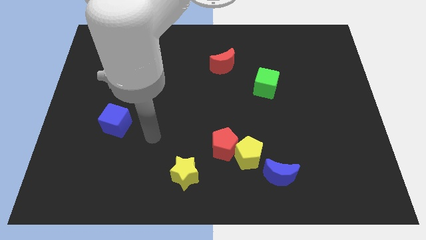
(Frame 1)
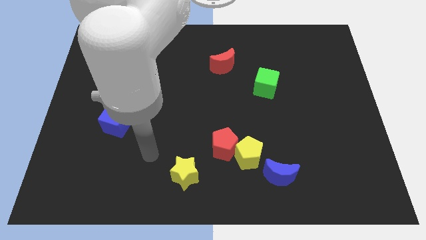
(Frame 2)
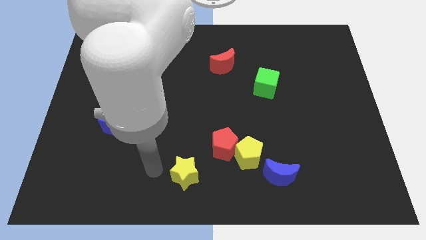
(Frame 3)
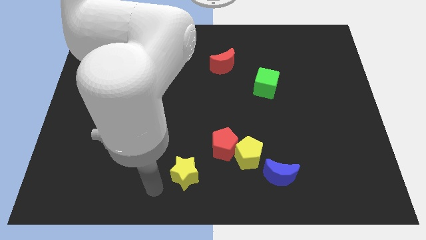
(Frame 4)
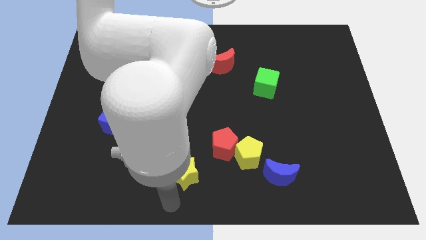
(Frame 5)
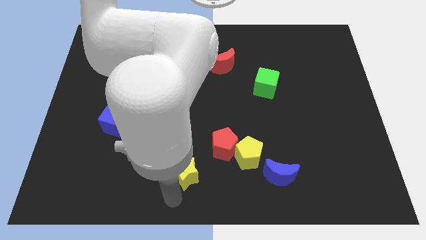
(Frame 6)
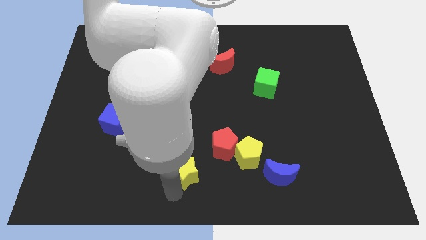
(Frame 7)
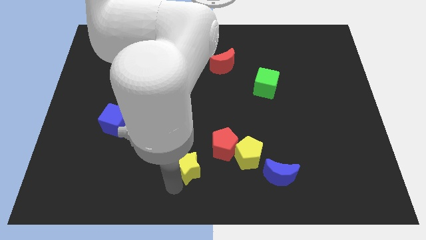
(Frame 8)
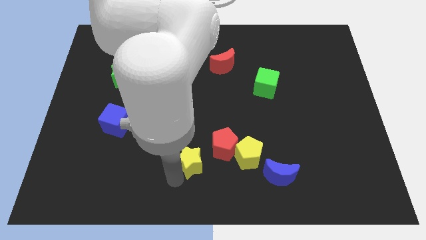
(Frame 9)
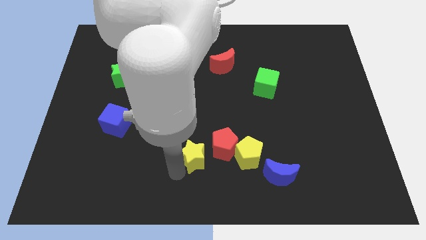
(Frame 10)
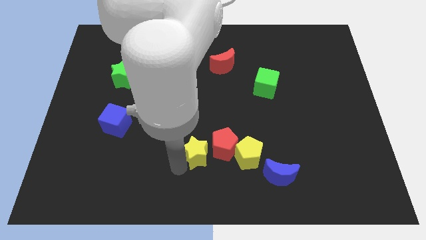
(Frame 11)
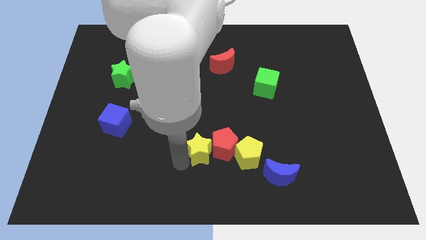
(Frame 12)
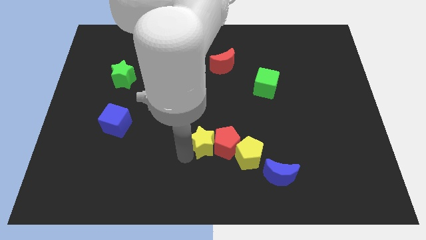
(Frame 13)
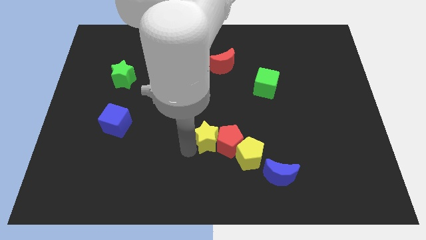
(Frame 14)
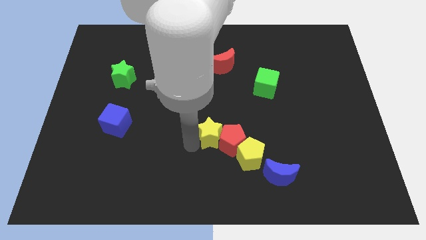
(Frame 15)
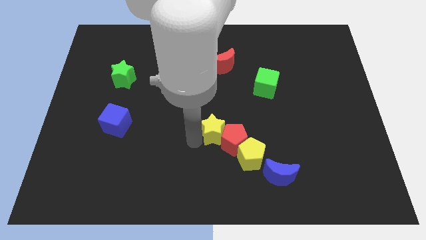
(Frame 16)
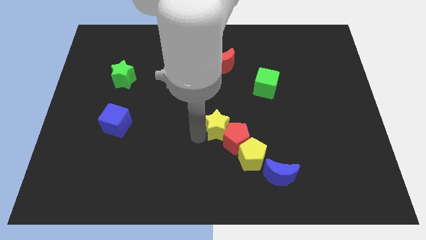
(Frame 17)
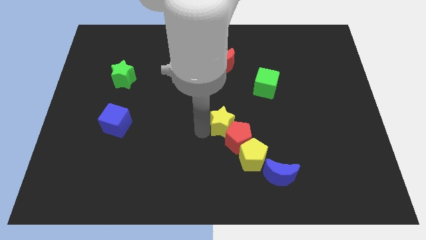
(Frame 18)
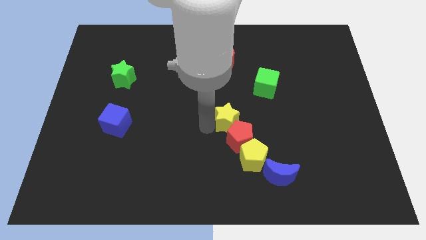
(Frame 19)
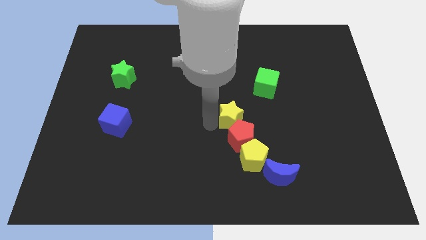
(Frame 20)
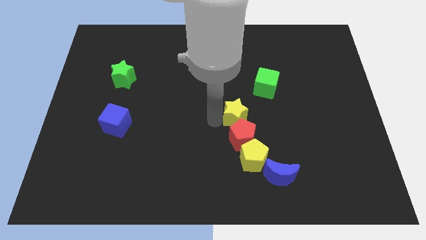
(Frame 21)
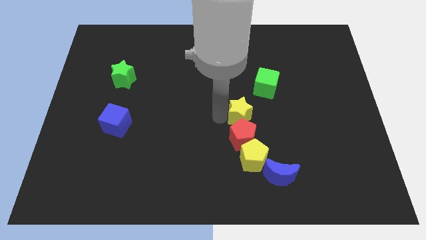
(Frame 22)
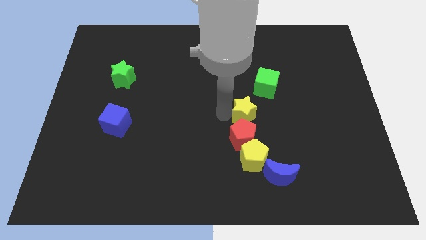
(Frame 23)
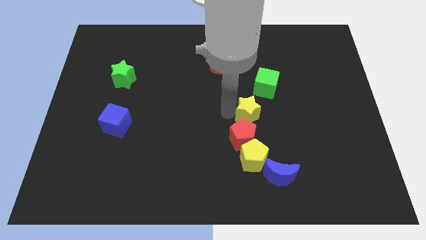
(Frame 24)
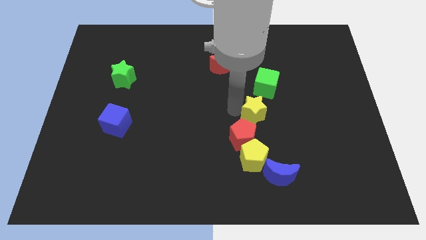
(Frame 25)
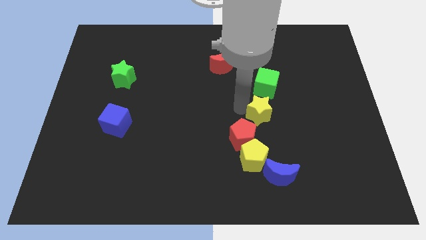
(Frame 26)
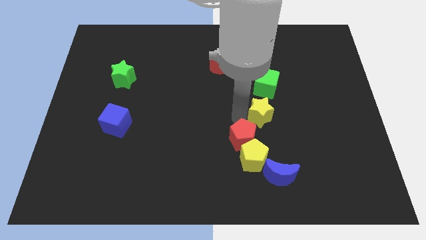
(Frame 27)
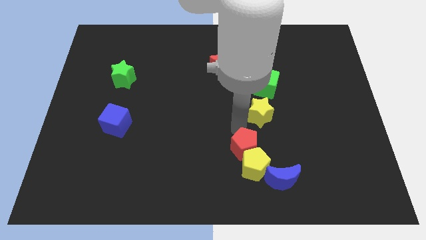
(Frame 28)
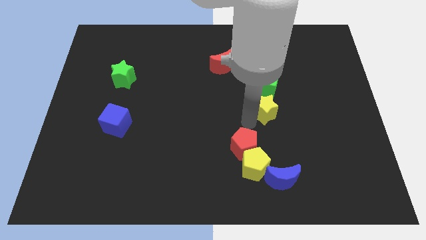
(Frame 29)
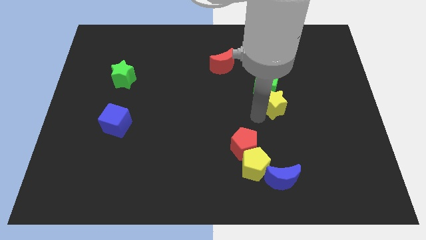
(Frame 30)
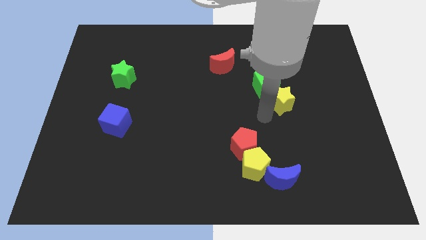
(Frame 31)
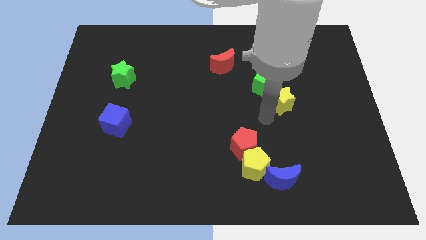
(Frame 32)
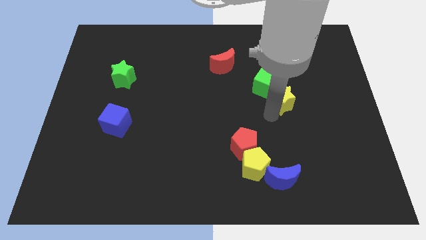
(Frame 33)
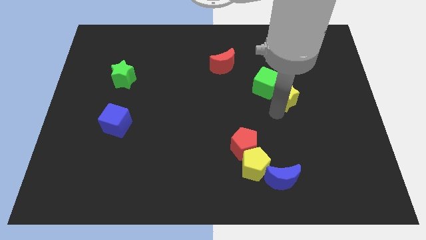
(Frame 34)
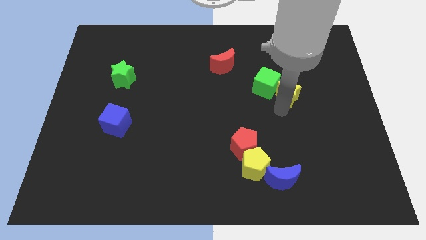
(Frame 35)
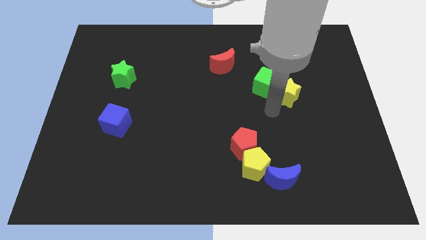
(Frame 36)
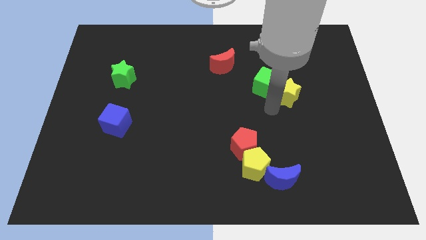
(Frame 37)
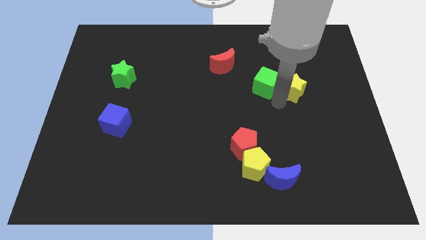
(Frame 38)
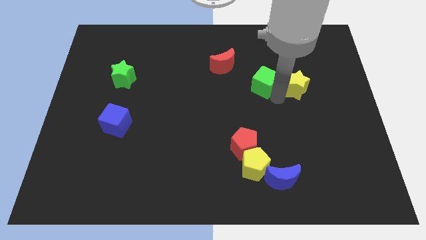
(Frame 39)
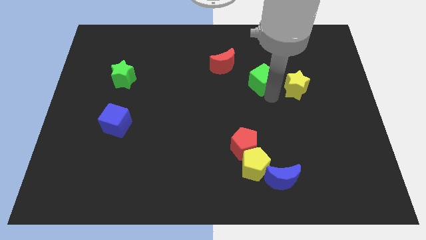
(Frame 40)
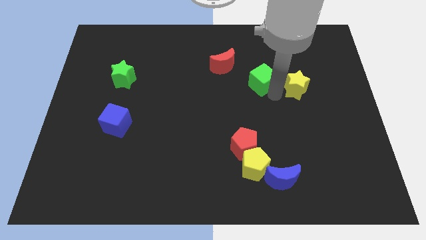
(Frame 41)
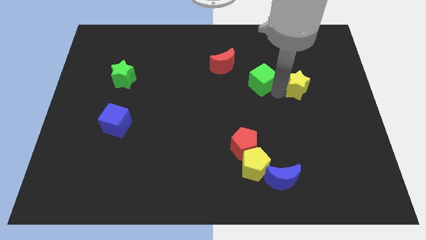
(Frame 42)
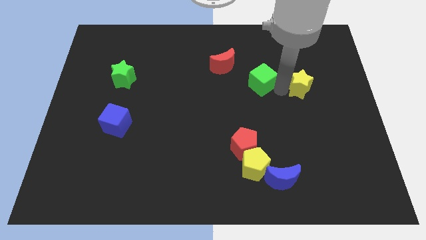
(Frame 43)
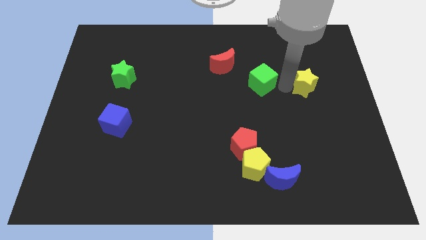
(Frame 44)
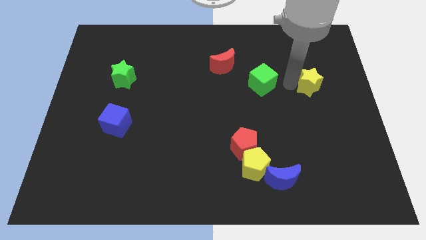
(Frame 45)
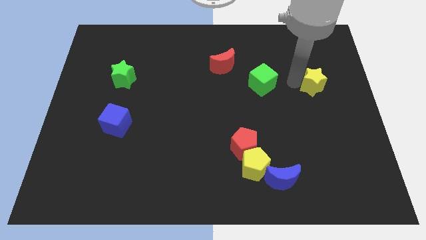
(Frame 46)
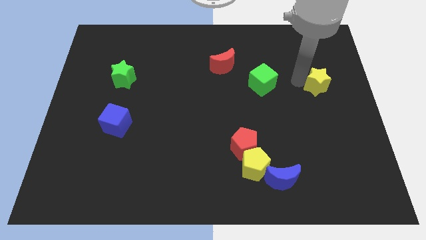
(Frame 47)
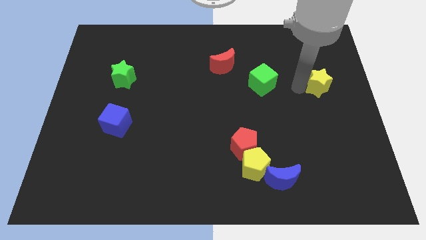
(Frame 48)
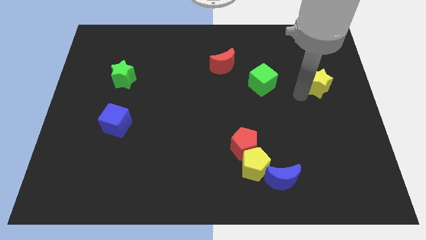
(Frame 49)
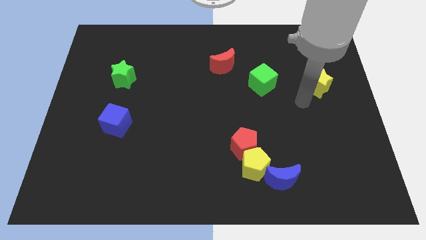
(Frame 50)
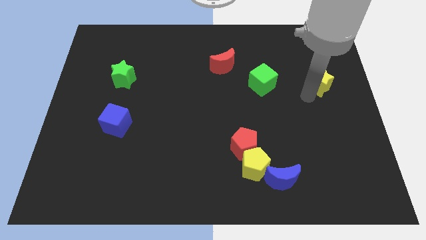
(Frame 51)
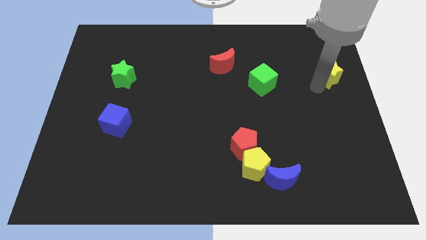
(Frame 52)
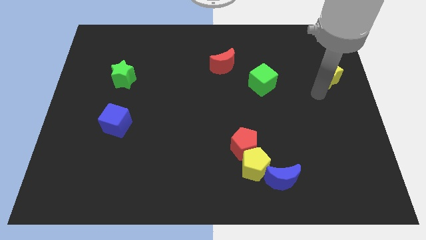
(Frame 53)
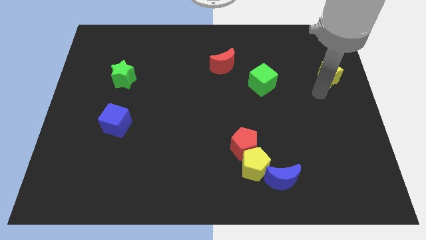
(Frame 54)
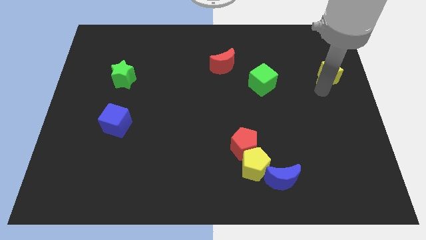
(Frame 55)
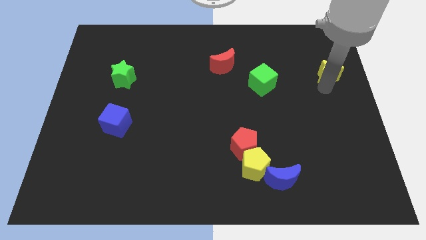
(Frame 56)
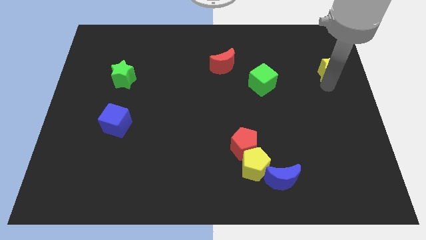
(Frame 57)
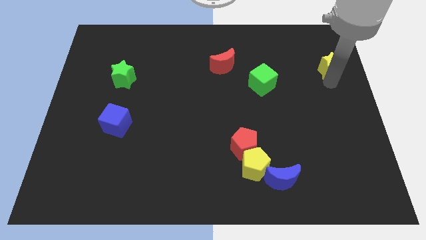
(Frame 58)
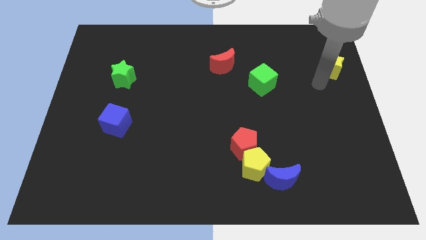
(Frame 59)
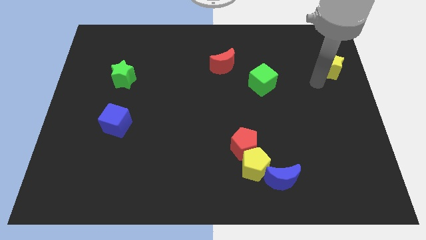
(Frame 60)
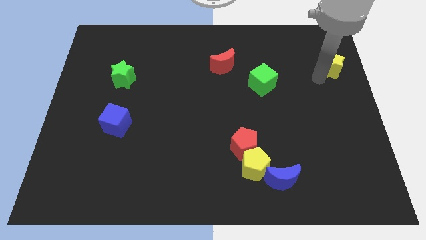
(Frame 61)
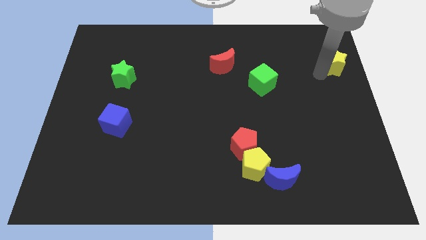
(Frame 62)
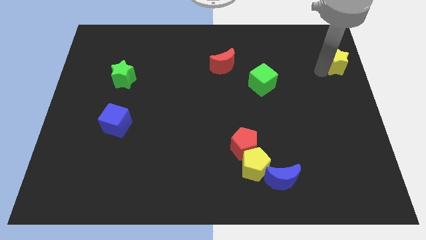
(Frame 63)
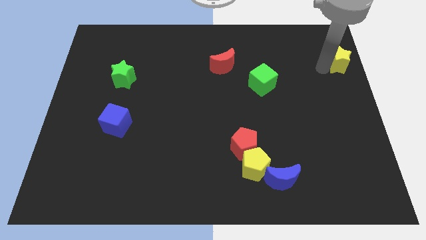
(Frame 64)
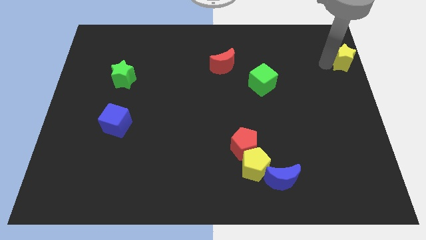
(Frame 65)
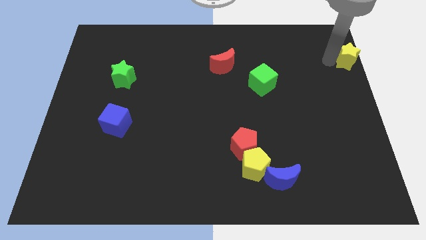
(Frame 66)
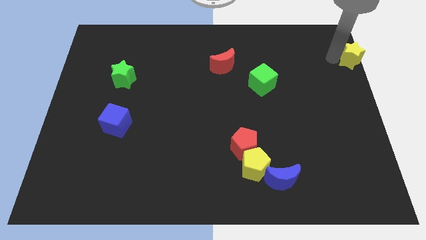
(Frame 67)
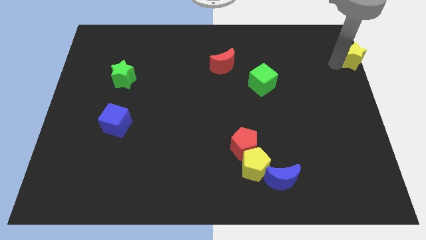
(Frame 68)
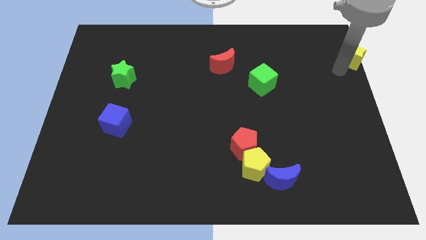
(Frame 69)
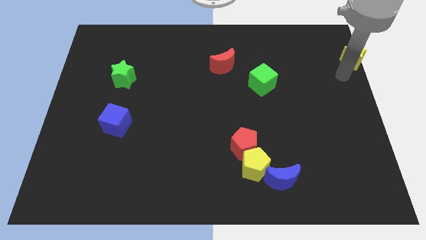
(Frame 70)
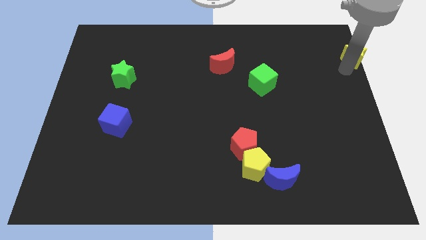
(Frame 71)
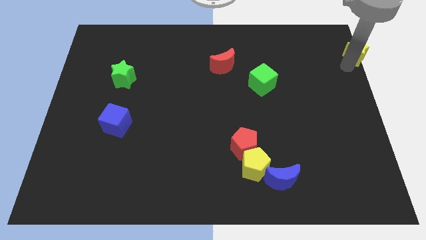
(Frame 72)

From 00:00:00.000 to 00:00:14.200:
put the yellow star to the top right of the board
